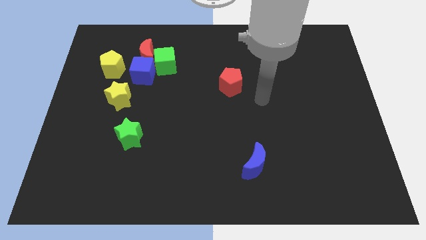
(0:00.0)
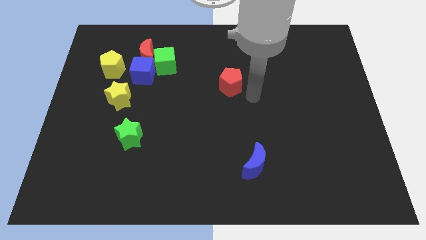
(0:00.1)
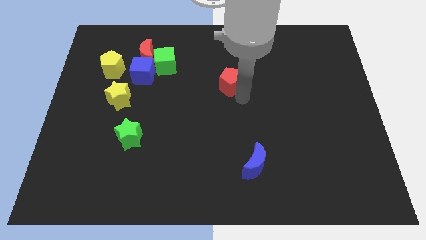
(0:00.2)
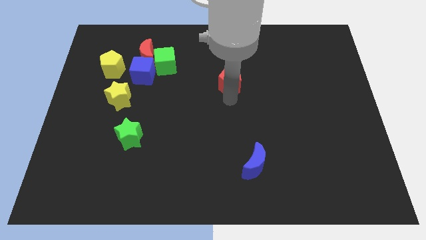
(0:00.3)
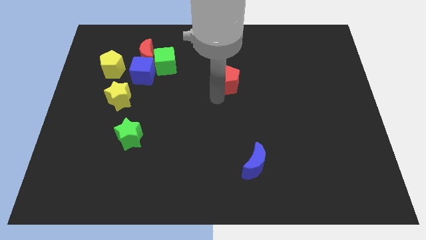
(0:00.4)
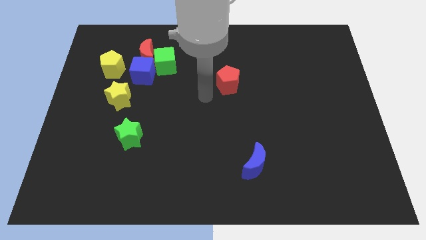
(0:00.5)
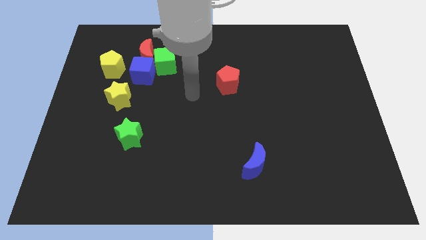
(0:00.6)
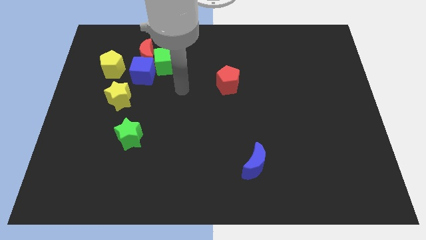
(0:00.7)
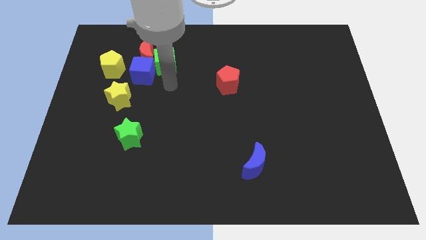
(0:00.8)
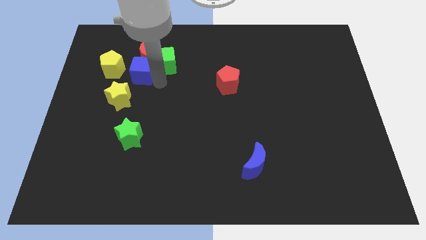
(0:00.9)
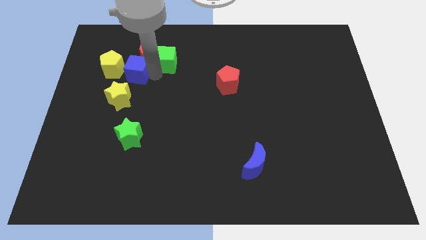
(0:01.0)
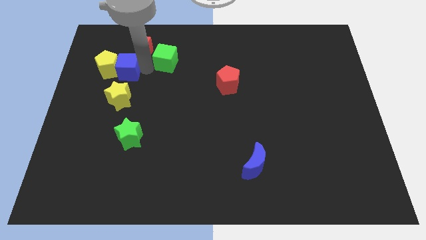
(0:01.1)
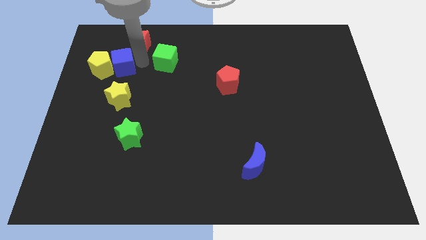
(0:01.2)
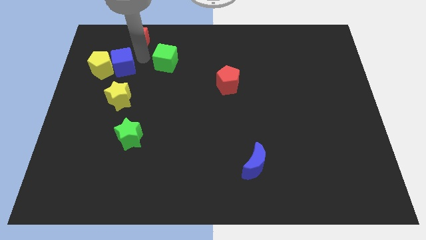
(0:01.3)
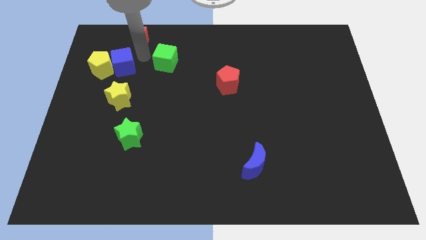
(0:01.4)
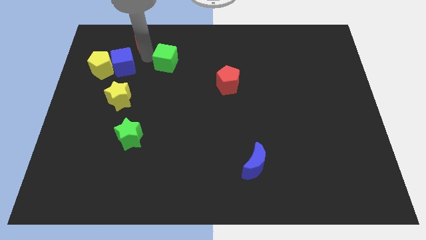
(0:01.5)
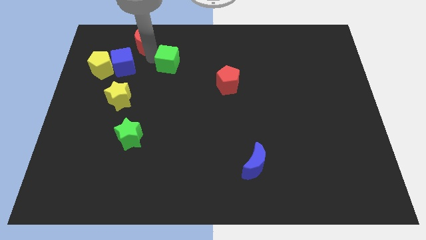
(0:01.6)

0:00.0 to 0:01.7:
separate the green cube from the red moon and blue cube

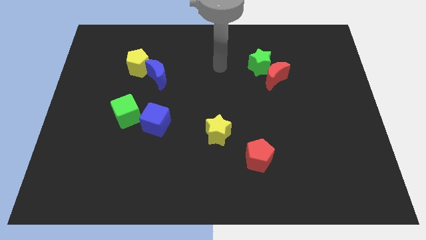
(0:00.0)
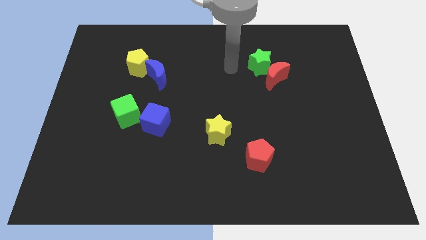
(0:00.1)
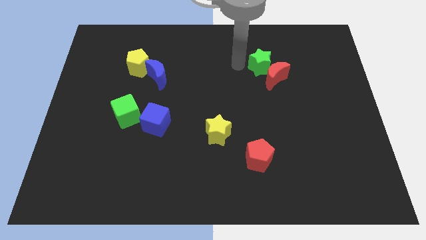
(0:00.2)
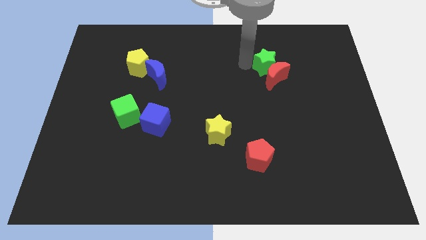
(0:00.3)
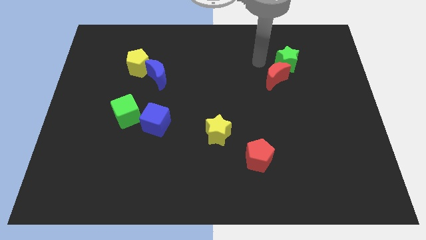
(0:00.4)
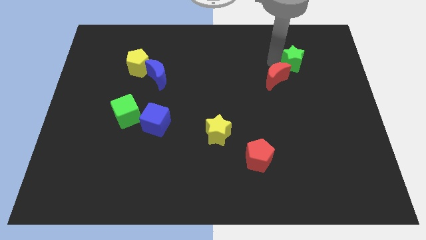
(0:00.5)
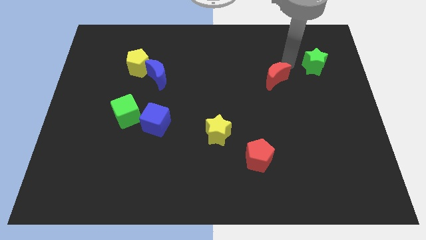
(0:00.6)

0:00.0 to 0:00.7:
pull the red moon apart from the green star

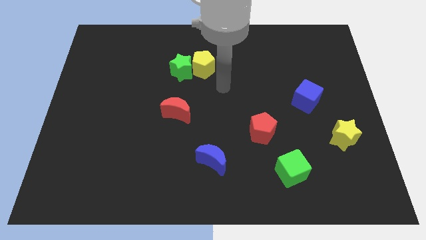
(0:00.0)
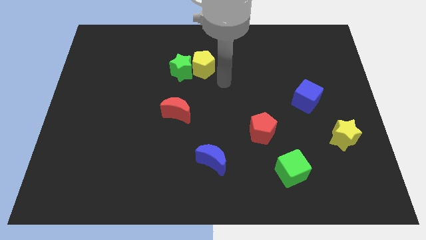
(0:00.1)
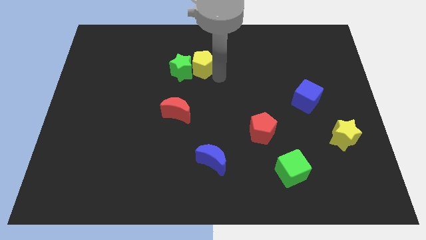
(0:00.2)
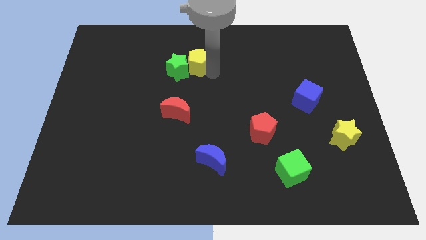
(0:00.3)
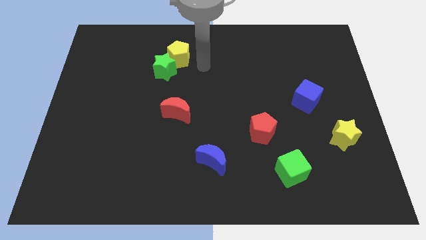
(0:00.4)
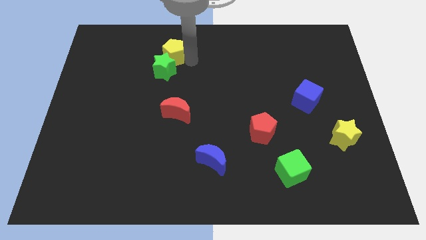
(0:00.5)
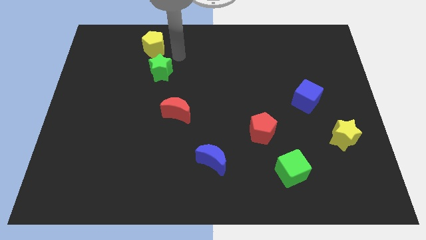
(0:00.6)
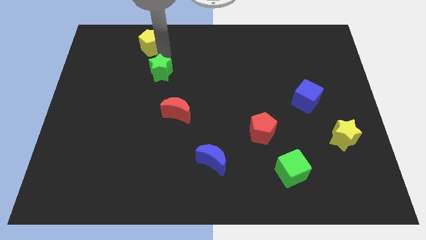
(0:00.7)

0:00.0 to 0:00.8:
pull the green star apart from the yellow pentagon

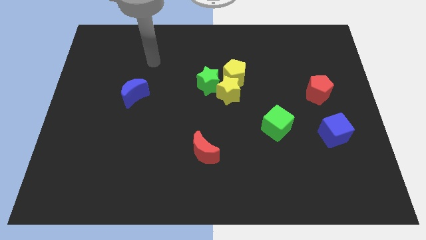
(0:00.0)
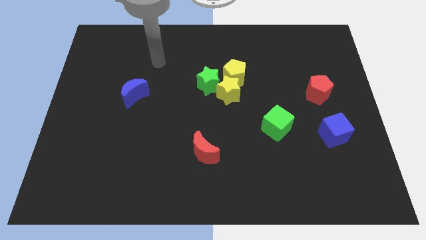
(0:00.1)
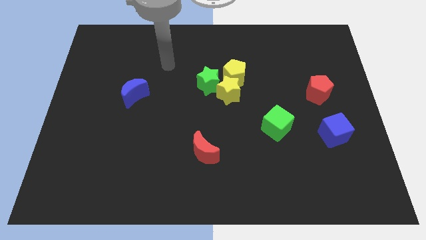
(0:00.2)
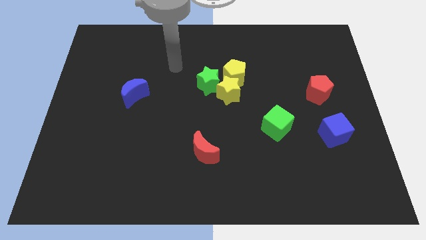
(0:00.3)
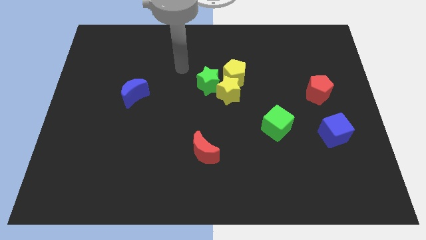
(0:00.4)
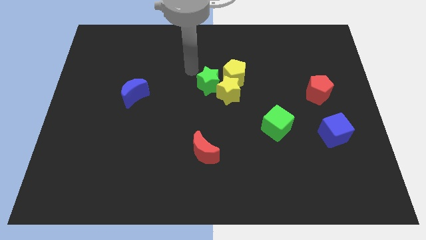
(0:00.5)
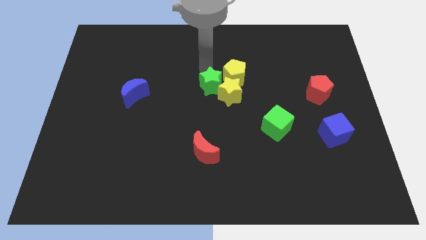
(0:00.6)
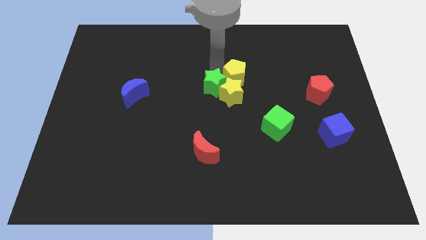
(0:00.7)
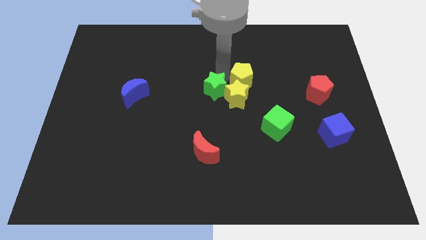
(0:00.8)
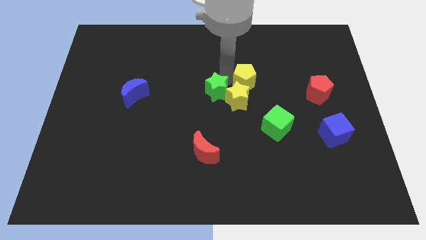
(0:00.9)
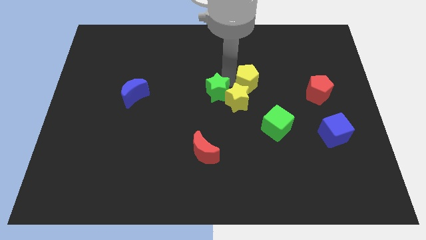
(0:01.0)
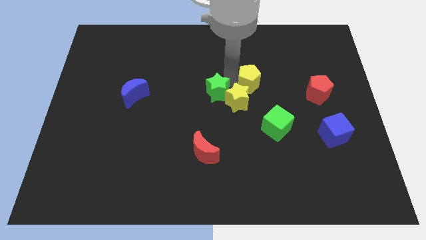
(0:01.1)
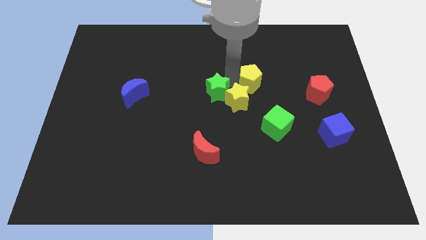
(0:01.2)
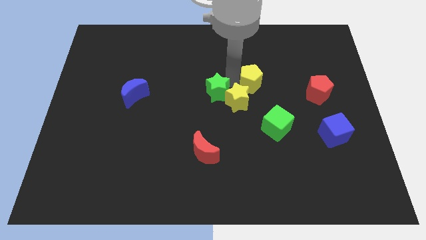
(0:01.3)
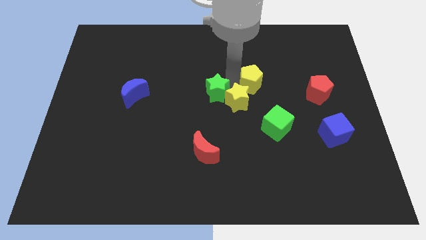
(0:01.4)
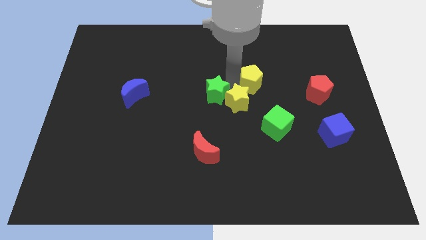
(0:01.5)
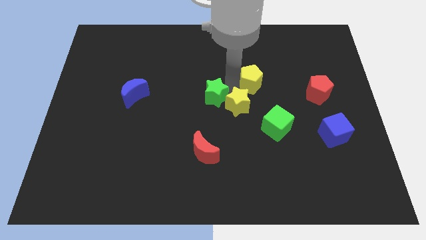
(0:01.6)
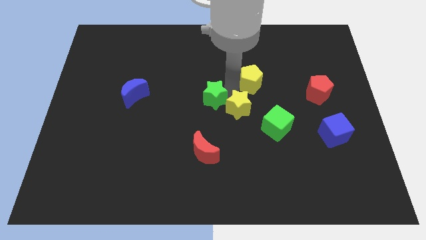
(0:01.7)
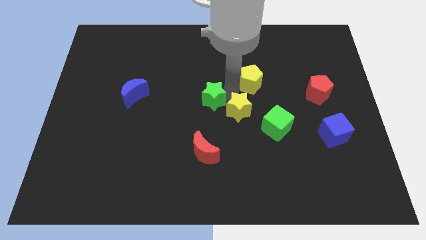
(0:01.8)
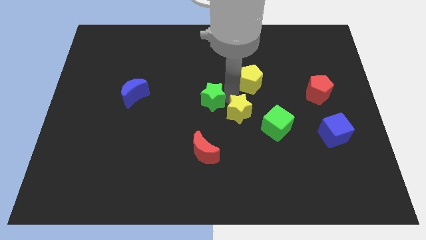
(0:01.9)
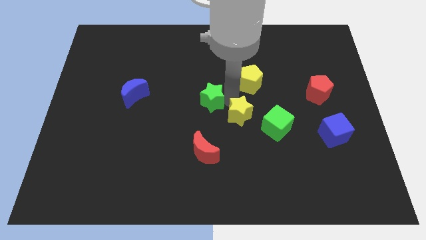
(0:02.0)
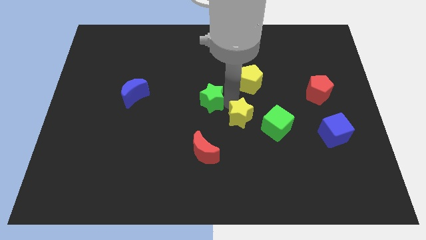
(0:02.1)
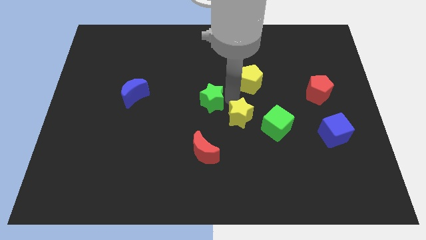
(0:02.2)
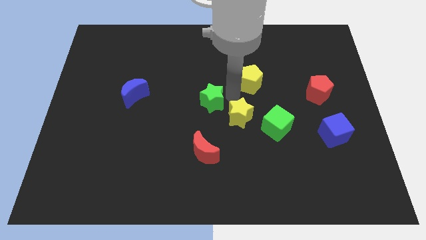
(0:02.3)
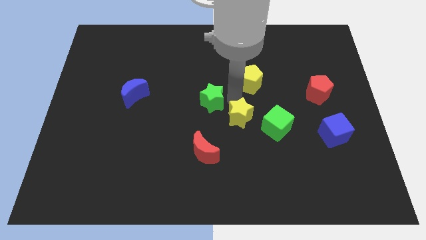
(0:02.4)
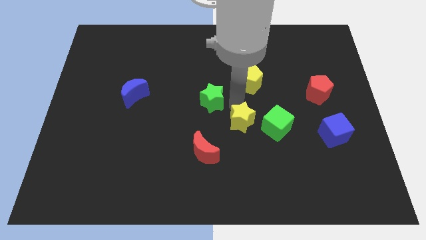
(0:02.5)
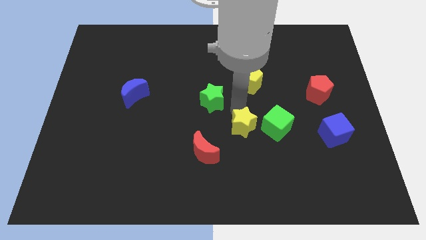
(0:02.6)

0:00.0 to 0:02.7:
move the yellow star away from the green star and yellow pentagon

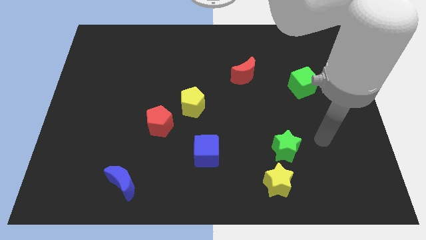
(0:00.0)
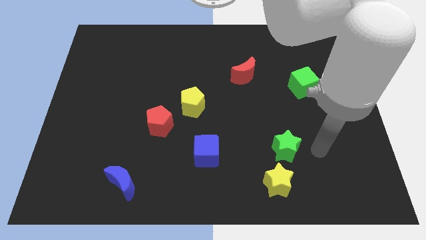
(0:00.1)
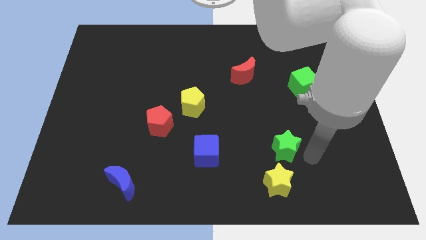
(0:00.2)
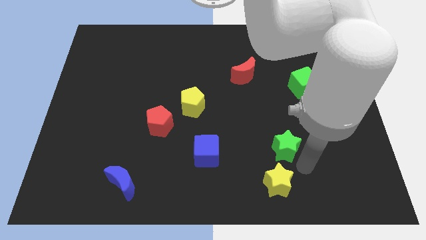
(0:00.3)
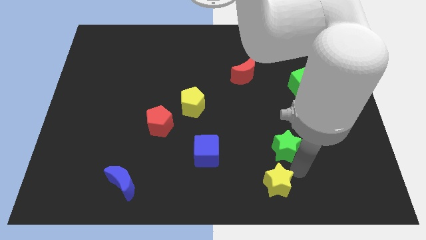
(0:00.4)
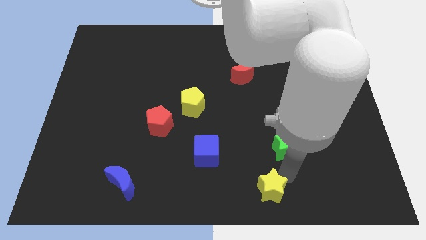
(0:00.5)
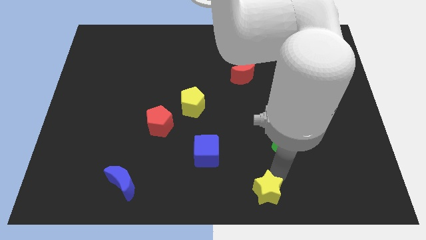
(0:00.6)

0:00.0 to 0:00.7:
pull the green star apart from the yellow star

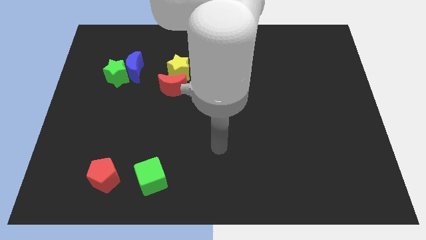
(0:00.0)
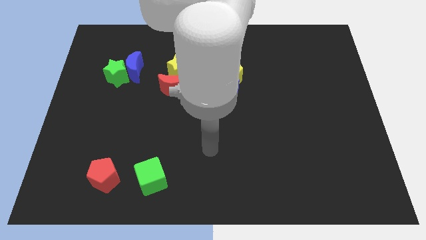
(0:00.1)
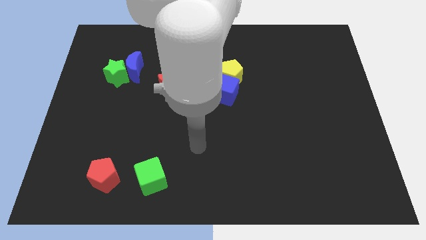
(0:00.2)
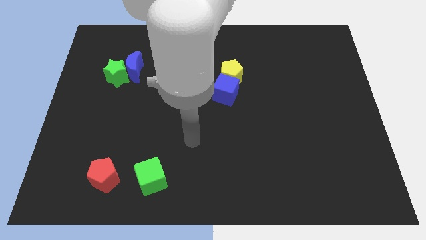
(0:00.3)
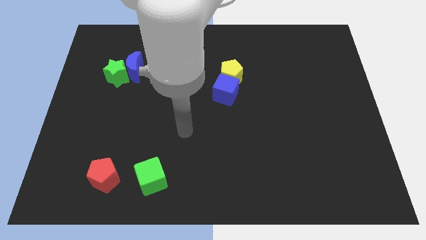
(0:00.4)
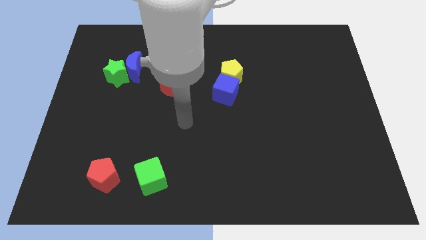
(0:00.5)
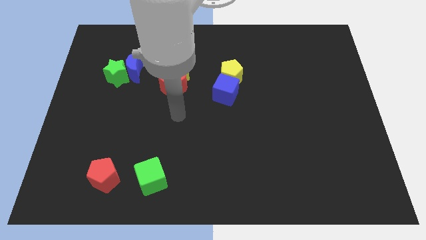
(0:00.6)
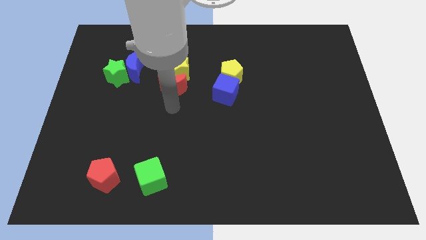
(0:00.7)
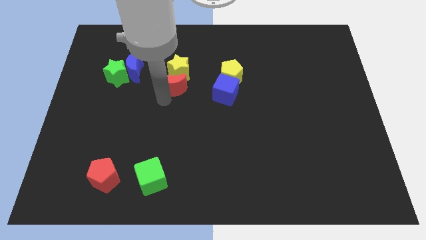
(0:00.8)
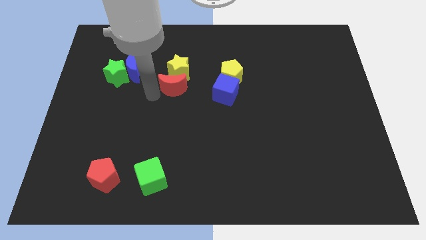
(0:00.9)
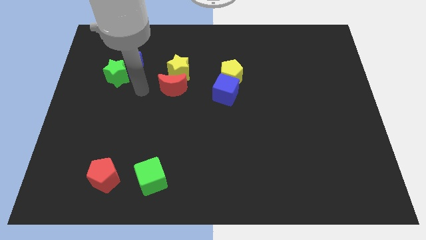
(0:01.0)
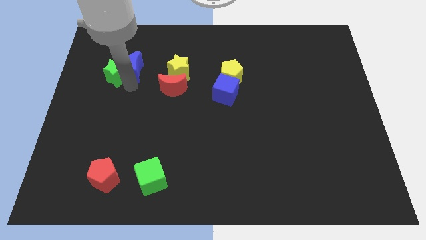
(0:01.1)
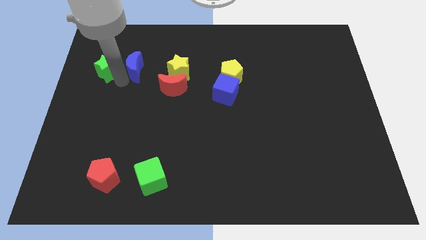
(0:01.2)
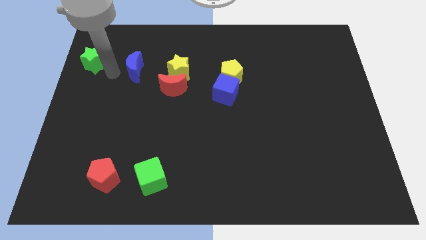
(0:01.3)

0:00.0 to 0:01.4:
separate the blue moon from the green star

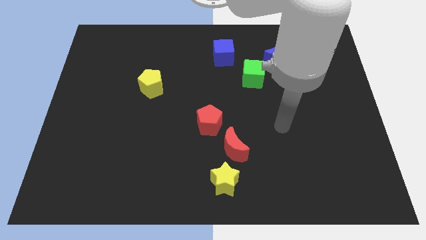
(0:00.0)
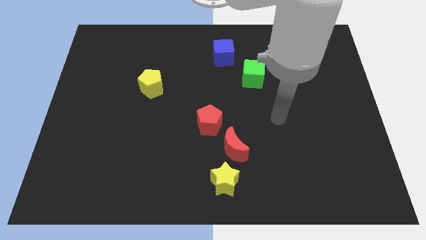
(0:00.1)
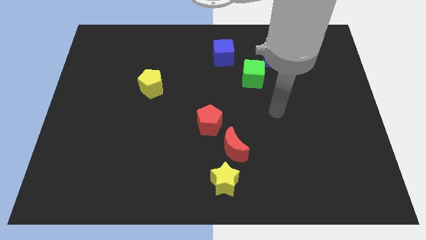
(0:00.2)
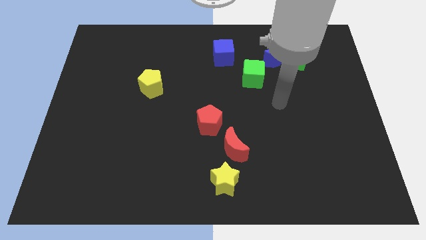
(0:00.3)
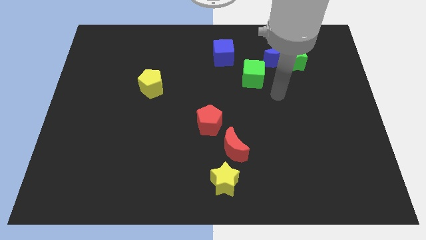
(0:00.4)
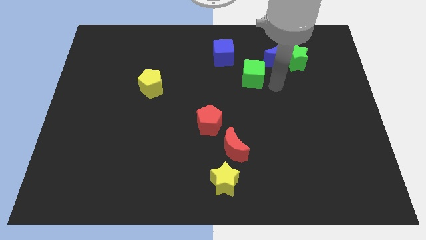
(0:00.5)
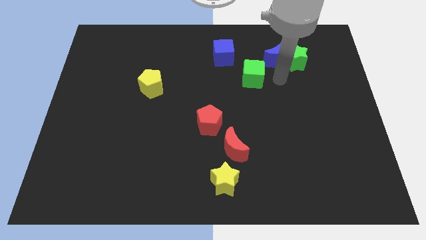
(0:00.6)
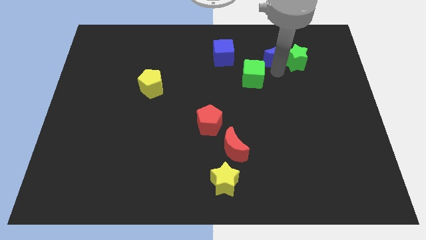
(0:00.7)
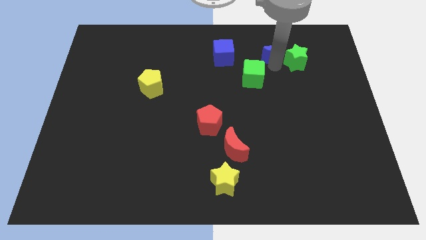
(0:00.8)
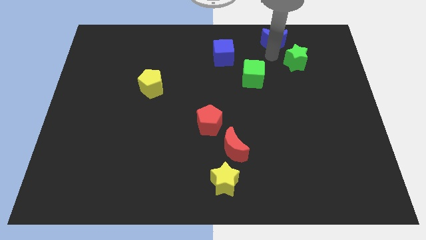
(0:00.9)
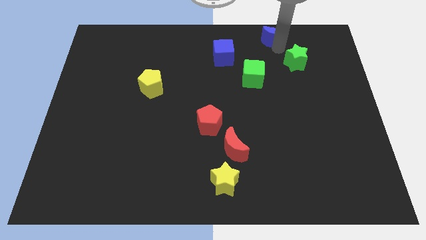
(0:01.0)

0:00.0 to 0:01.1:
separate the green star from the blue moon

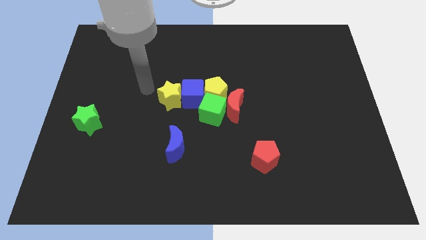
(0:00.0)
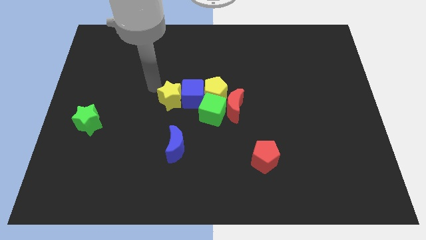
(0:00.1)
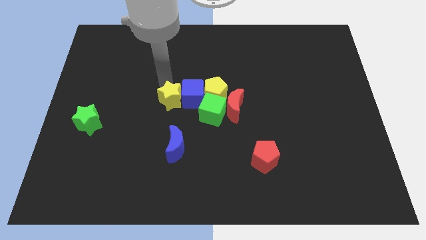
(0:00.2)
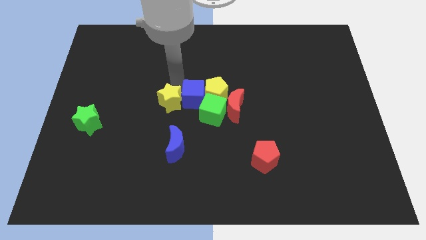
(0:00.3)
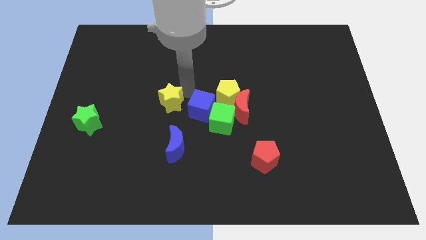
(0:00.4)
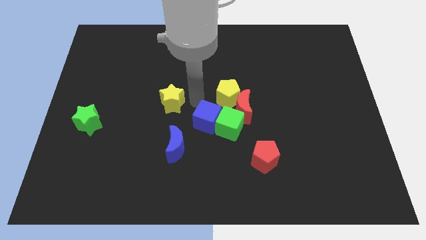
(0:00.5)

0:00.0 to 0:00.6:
move the yellow star away from the blue cube
